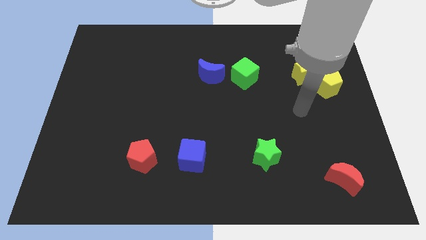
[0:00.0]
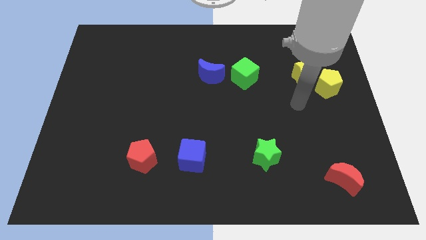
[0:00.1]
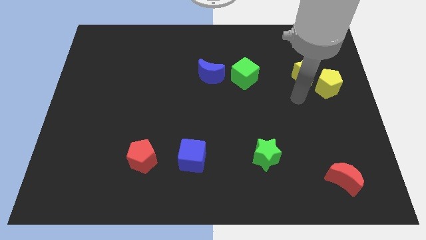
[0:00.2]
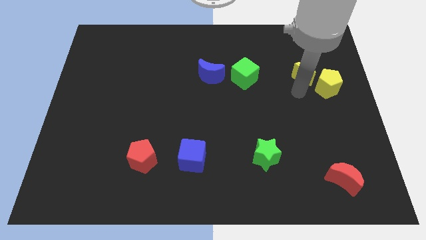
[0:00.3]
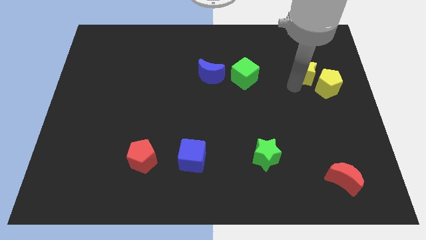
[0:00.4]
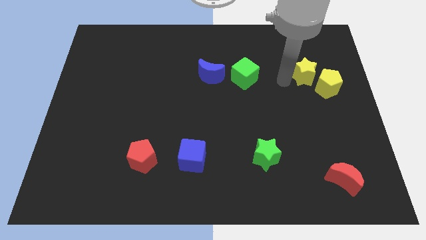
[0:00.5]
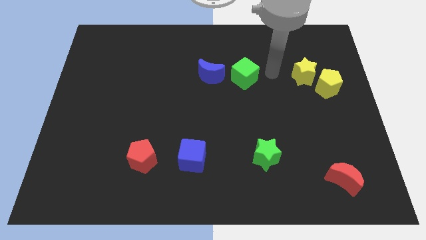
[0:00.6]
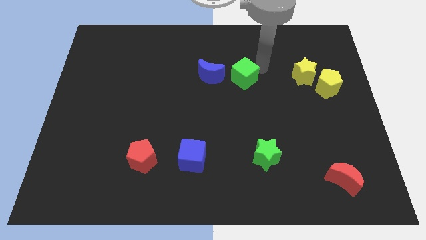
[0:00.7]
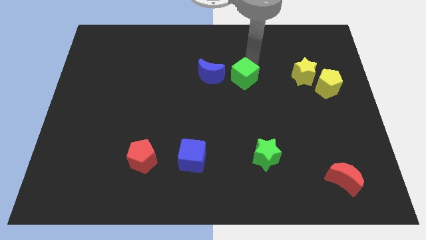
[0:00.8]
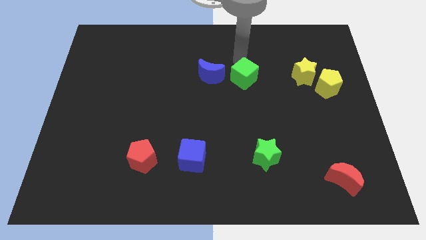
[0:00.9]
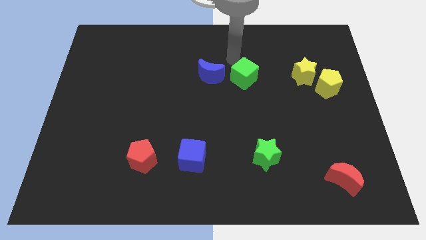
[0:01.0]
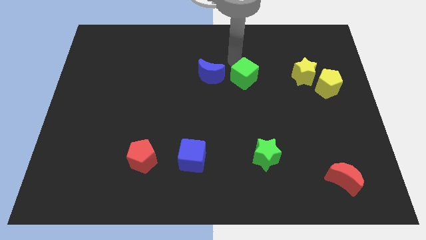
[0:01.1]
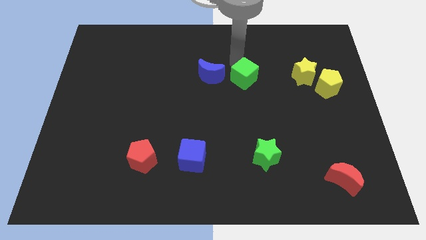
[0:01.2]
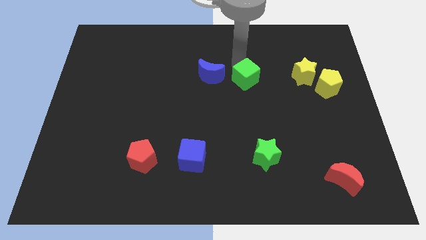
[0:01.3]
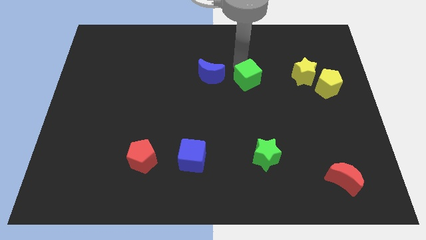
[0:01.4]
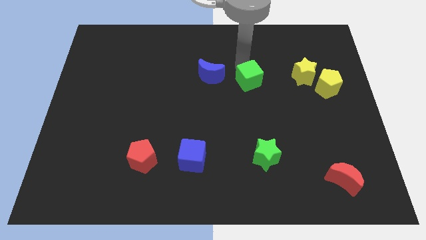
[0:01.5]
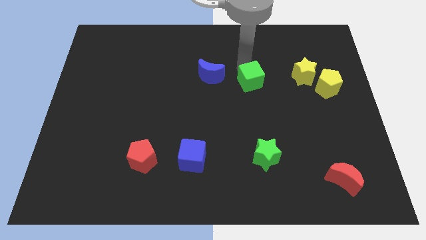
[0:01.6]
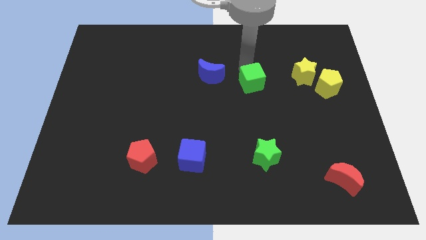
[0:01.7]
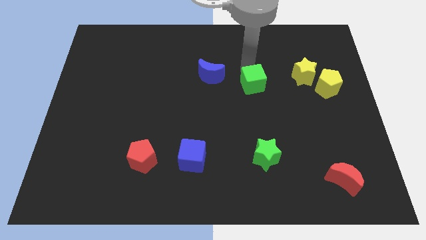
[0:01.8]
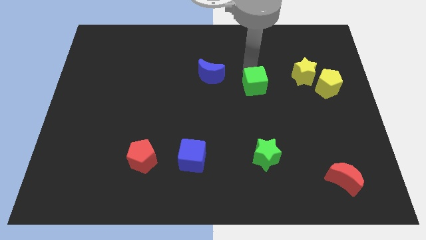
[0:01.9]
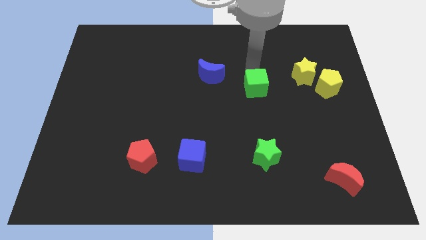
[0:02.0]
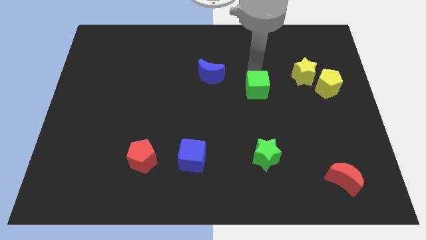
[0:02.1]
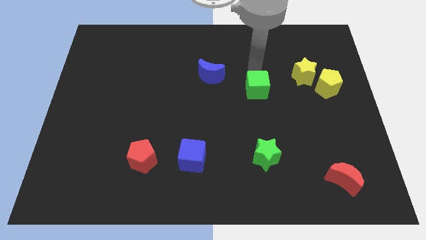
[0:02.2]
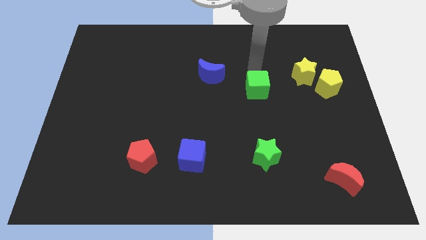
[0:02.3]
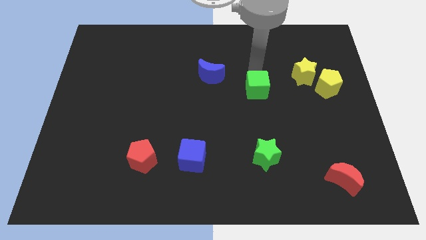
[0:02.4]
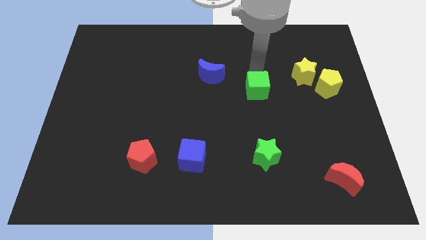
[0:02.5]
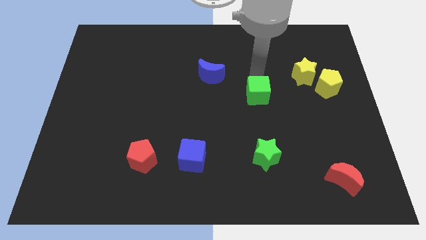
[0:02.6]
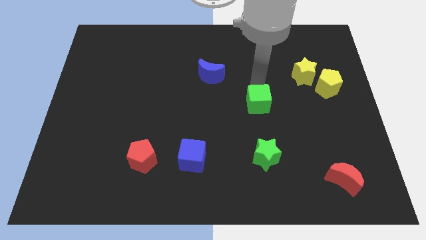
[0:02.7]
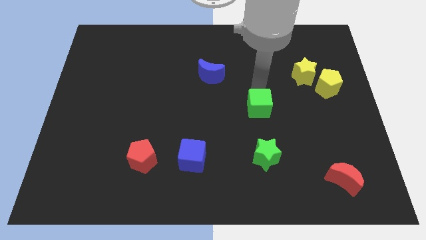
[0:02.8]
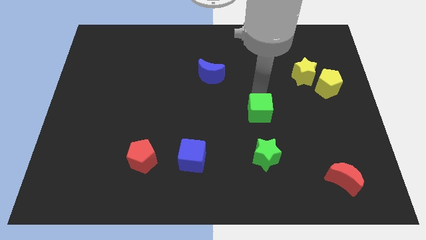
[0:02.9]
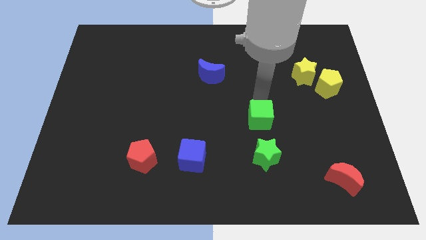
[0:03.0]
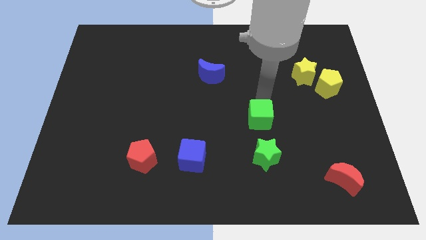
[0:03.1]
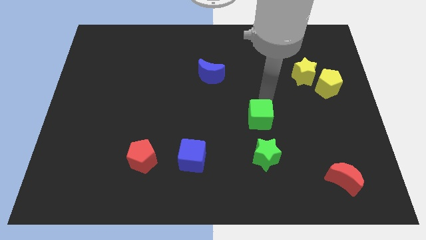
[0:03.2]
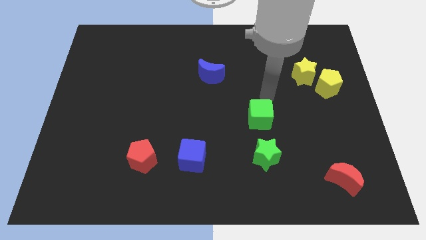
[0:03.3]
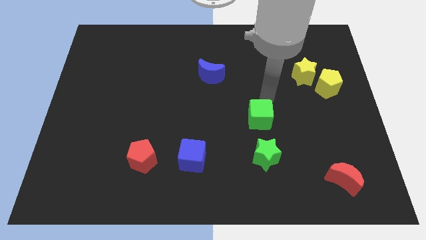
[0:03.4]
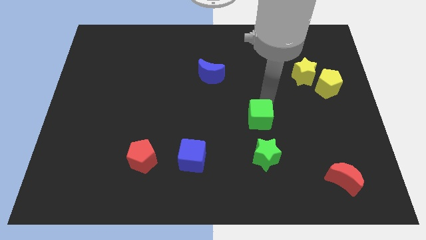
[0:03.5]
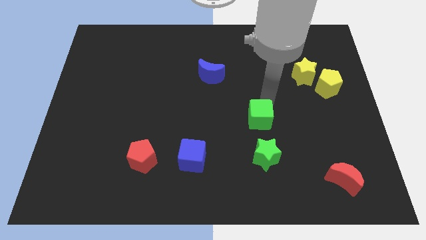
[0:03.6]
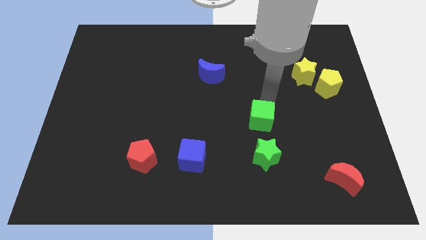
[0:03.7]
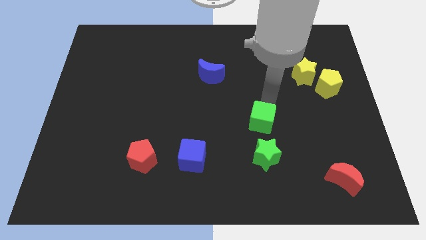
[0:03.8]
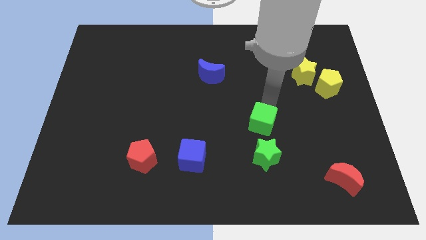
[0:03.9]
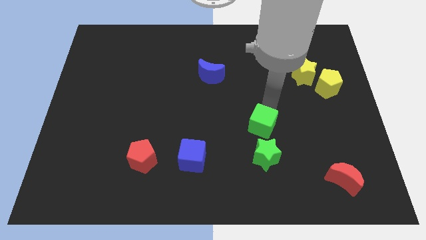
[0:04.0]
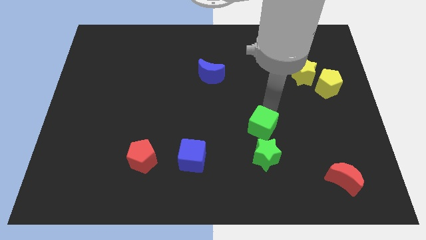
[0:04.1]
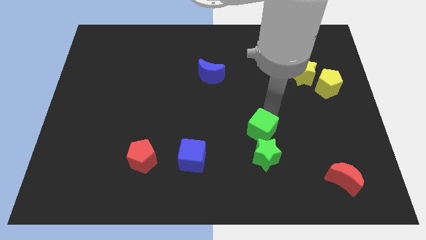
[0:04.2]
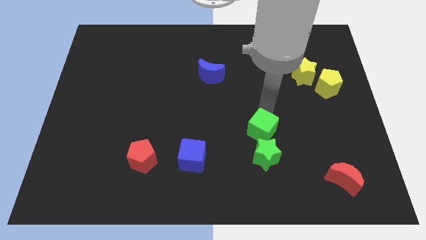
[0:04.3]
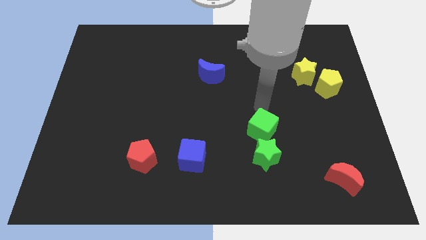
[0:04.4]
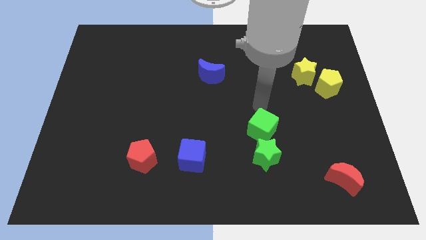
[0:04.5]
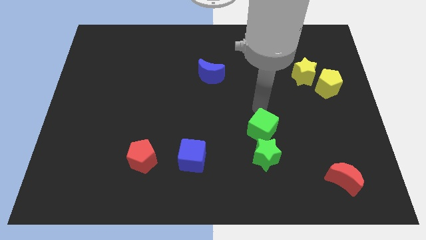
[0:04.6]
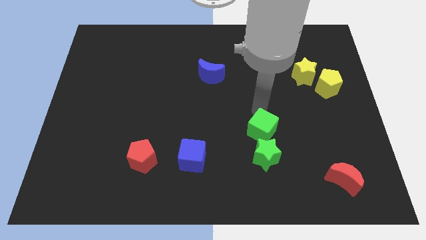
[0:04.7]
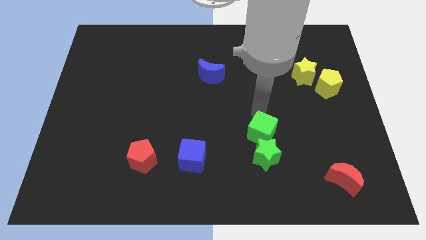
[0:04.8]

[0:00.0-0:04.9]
push the green cube next to the green star

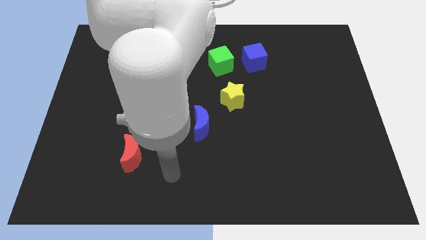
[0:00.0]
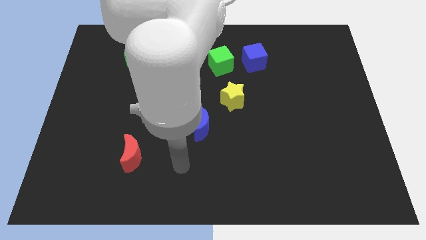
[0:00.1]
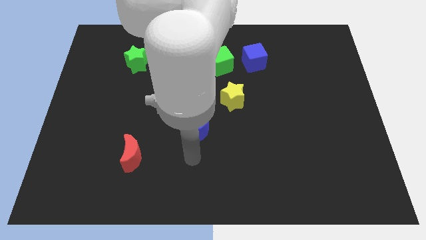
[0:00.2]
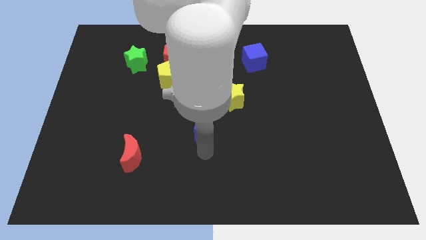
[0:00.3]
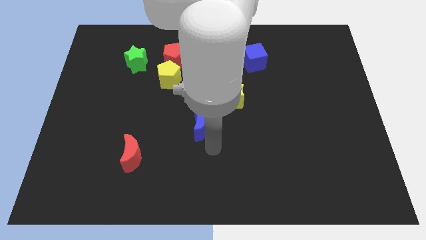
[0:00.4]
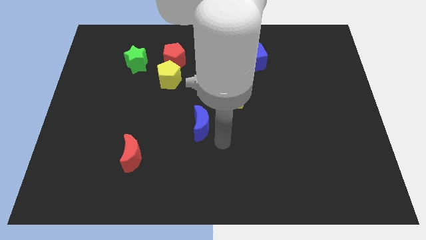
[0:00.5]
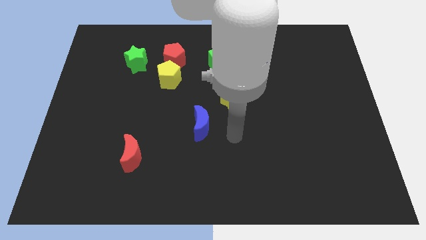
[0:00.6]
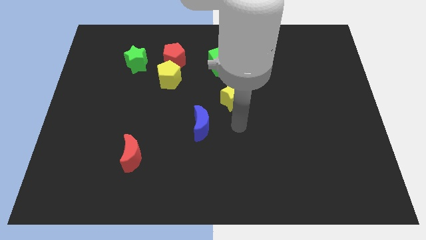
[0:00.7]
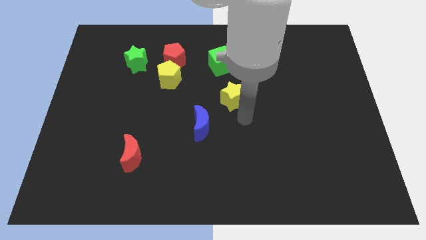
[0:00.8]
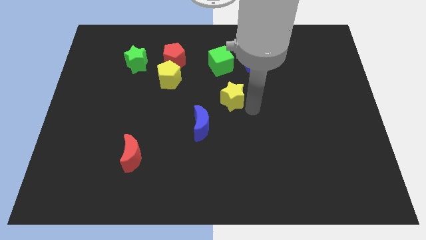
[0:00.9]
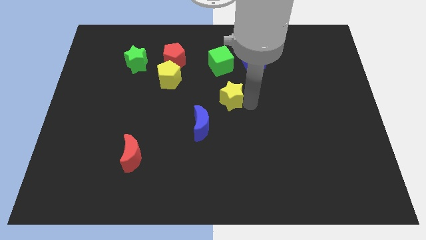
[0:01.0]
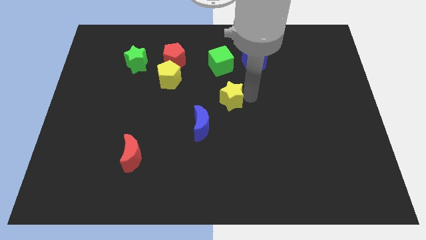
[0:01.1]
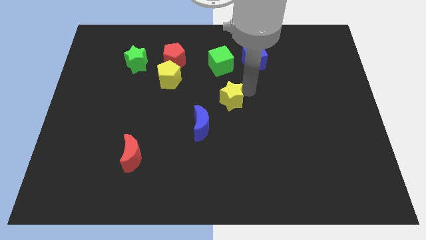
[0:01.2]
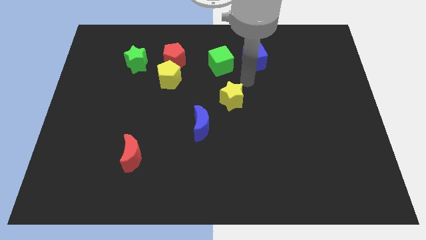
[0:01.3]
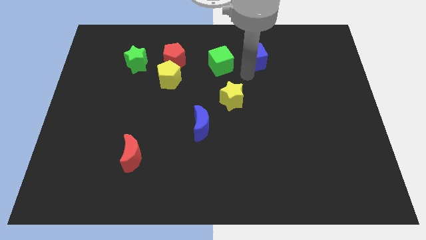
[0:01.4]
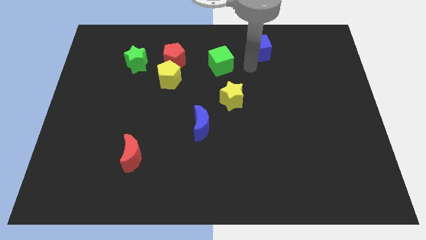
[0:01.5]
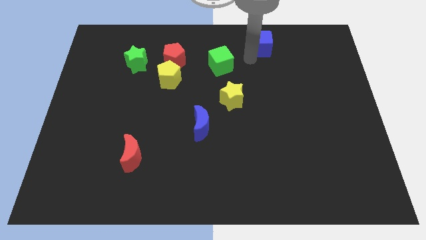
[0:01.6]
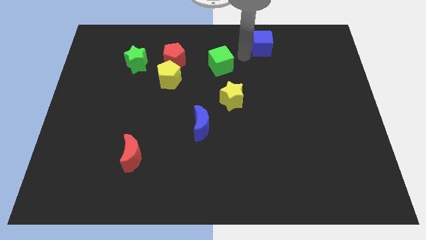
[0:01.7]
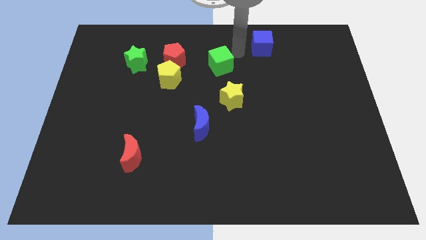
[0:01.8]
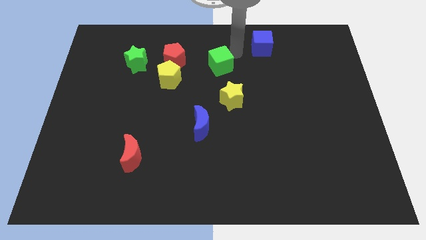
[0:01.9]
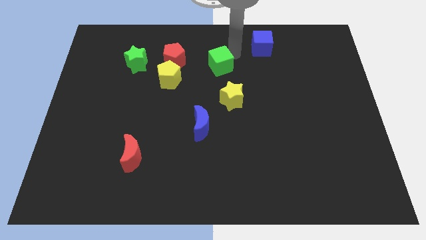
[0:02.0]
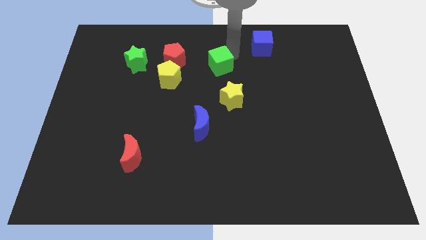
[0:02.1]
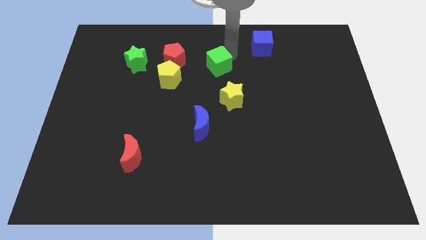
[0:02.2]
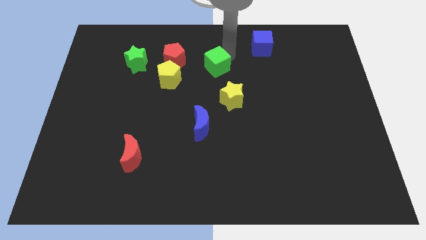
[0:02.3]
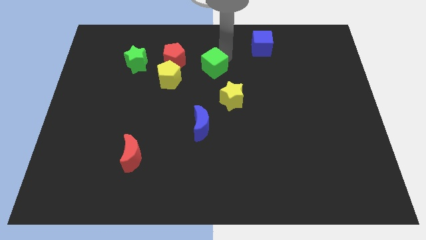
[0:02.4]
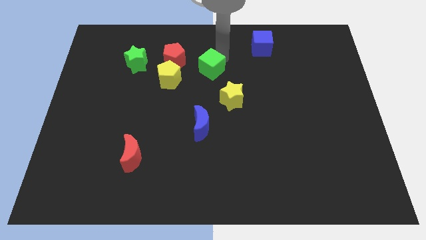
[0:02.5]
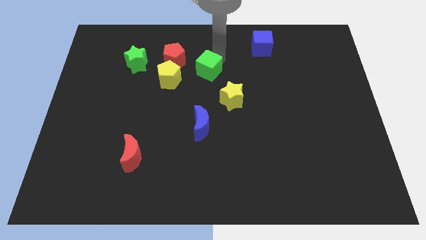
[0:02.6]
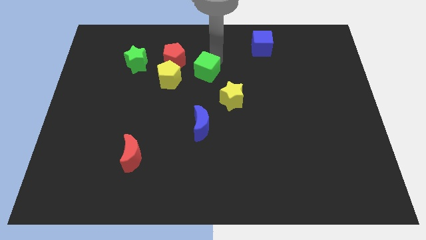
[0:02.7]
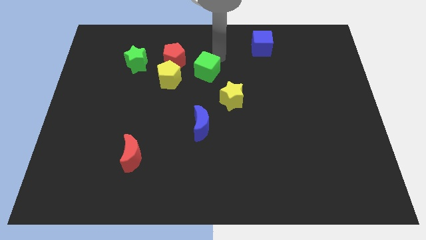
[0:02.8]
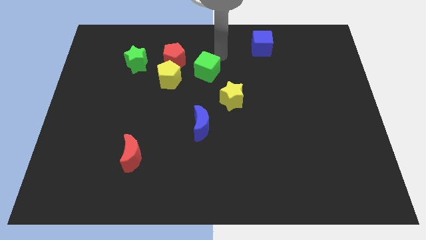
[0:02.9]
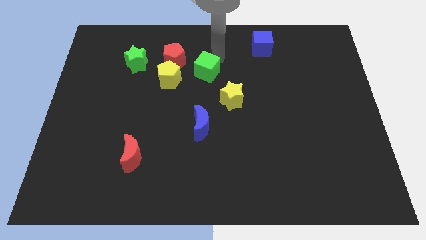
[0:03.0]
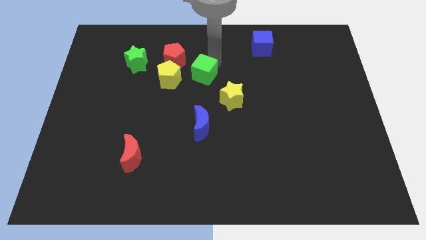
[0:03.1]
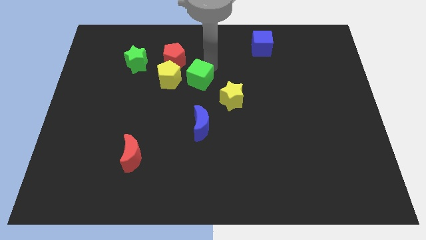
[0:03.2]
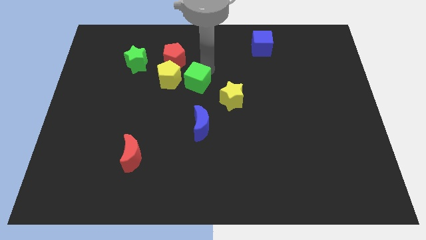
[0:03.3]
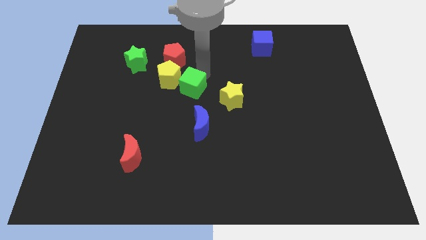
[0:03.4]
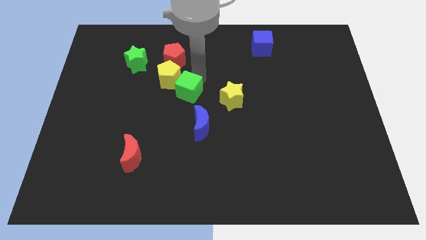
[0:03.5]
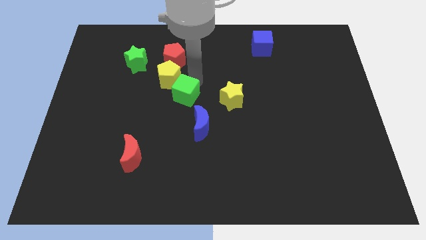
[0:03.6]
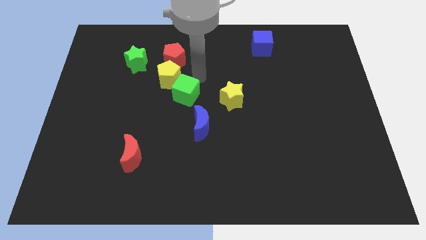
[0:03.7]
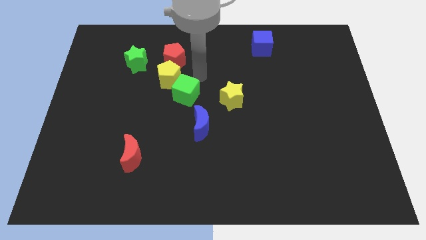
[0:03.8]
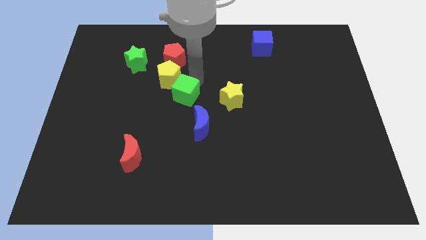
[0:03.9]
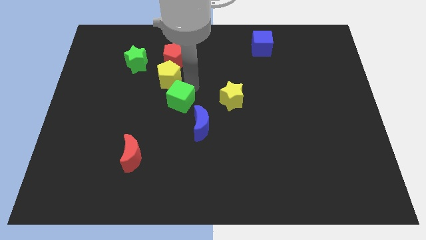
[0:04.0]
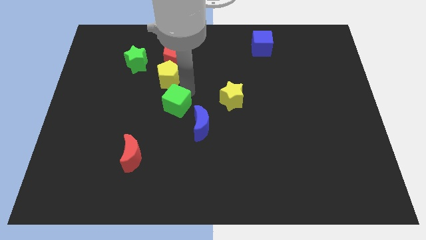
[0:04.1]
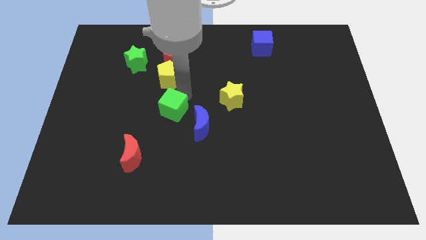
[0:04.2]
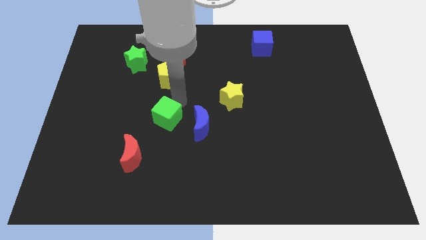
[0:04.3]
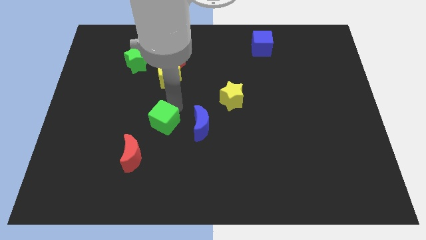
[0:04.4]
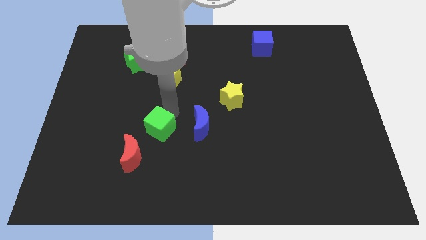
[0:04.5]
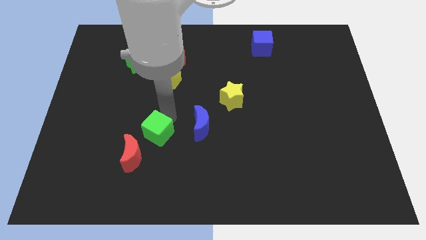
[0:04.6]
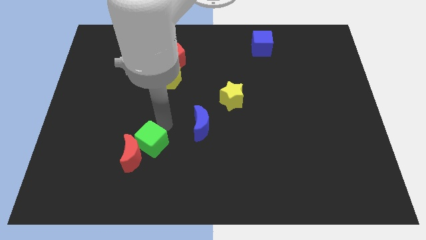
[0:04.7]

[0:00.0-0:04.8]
slide the green cube next to the red moon
